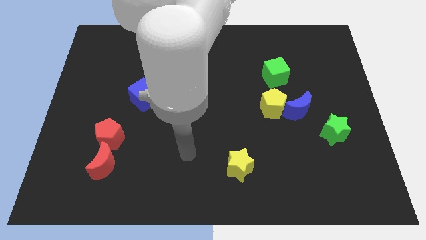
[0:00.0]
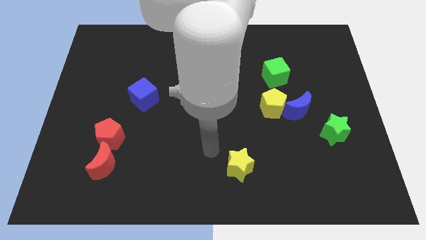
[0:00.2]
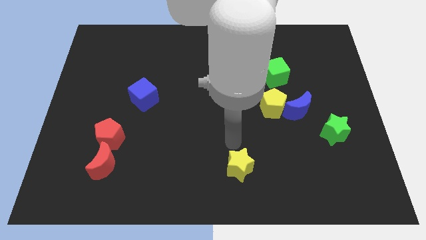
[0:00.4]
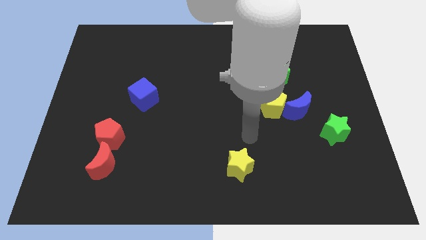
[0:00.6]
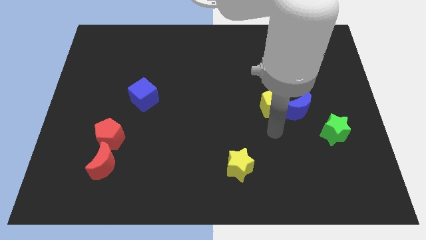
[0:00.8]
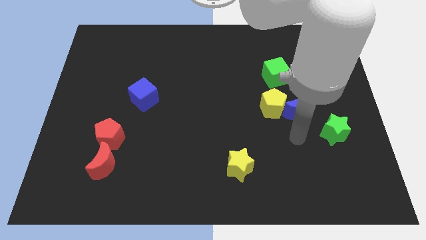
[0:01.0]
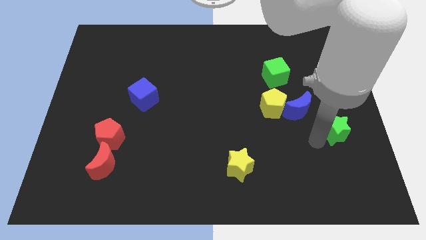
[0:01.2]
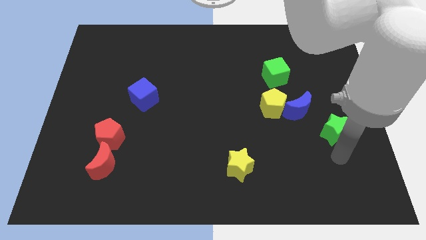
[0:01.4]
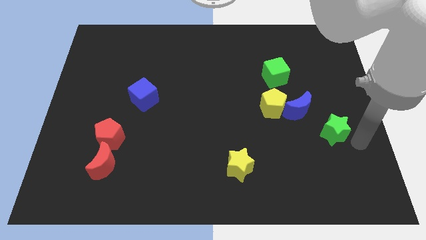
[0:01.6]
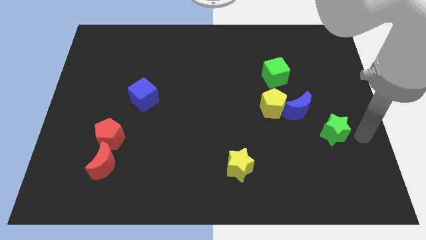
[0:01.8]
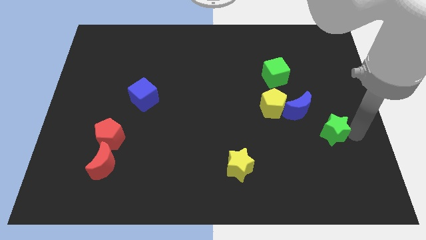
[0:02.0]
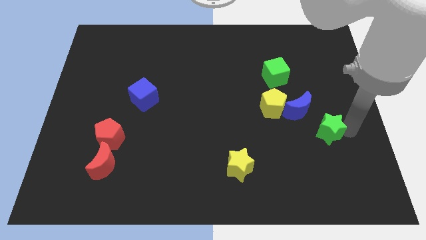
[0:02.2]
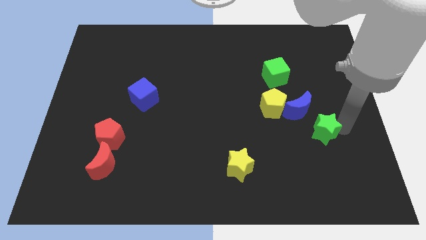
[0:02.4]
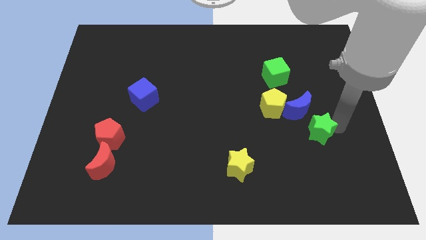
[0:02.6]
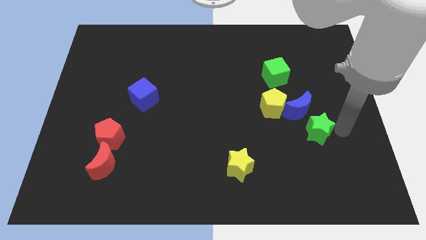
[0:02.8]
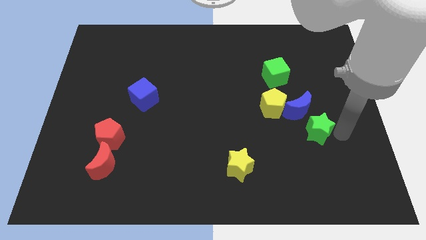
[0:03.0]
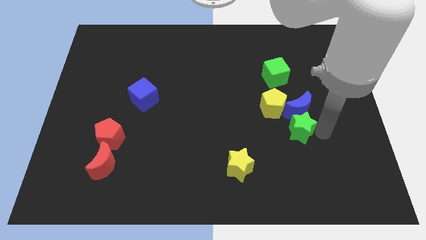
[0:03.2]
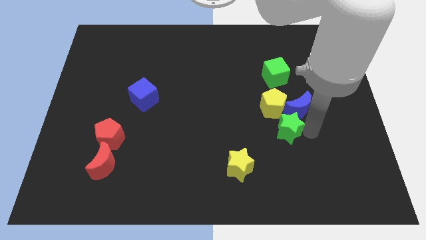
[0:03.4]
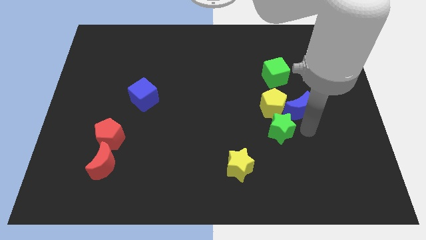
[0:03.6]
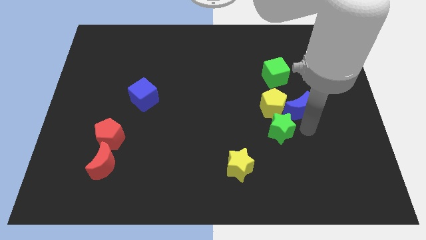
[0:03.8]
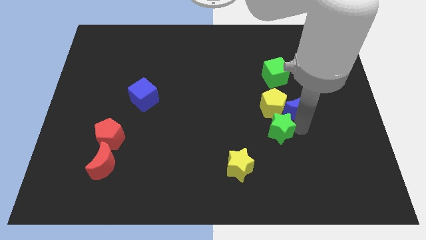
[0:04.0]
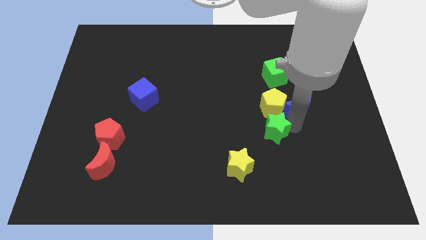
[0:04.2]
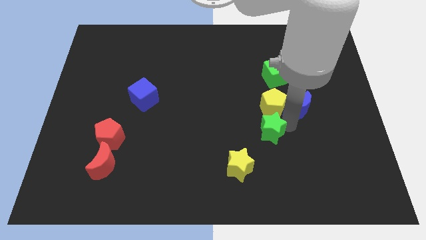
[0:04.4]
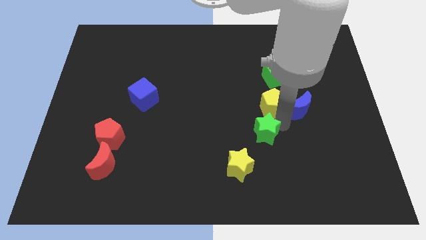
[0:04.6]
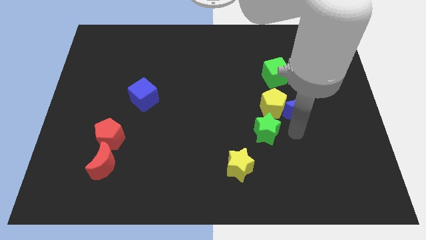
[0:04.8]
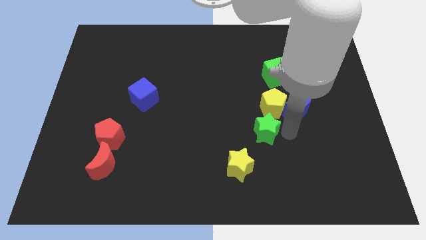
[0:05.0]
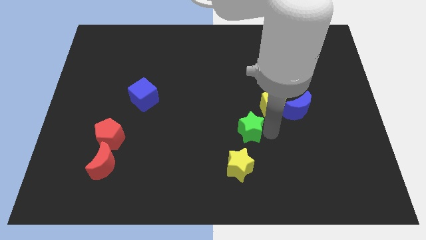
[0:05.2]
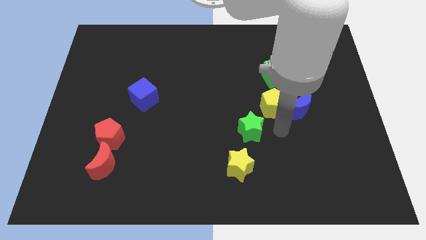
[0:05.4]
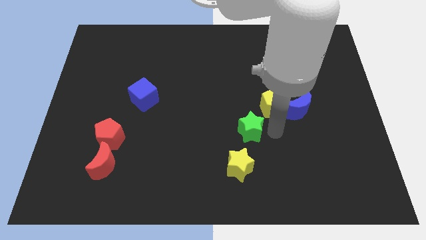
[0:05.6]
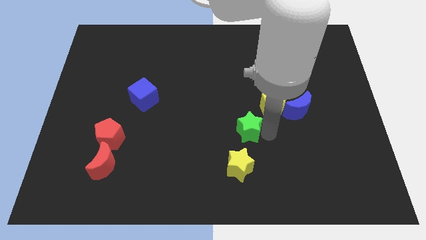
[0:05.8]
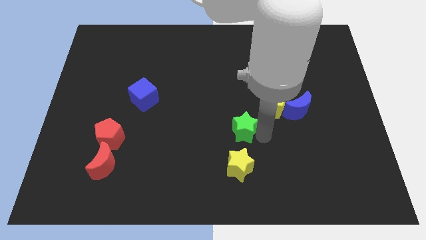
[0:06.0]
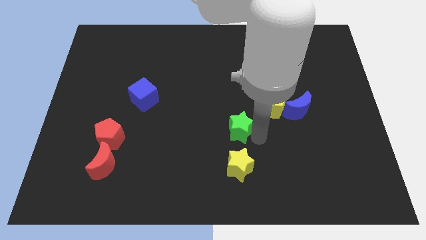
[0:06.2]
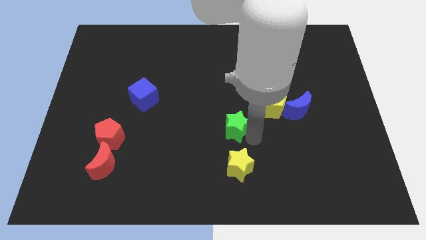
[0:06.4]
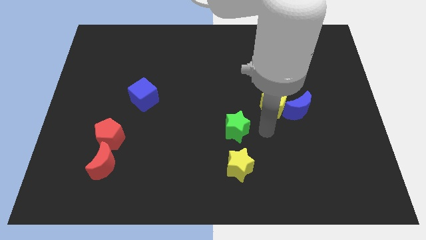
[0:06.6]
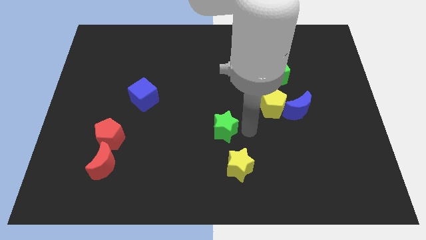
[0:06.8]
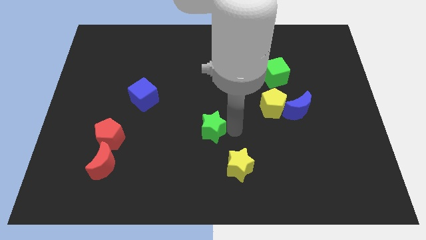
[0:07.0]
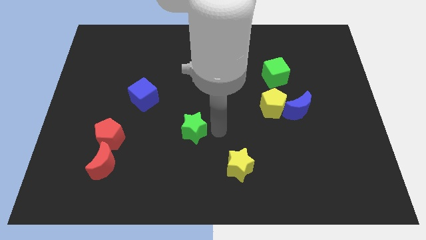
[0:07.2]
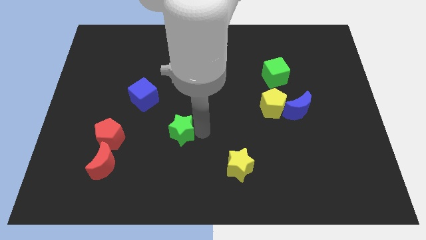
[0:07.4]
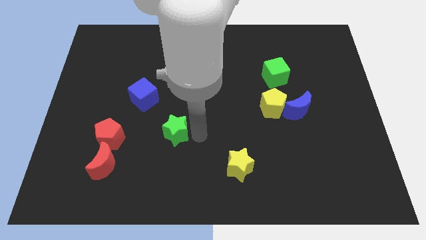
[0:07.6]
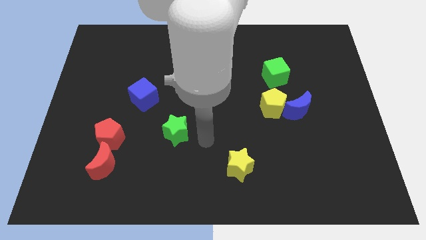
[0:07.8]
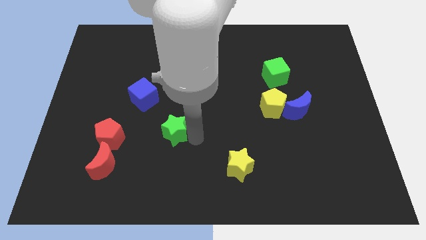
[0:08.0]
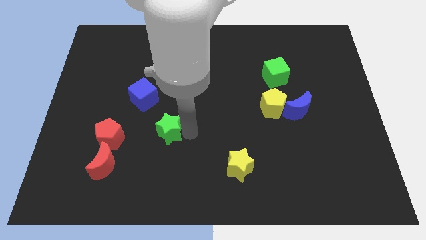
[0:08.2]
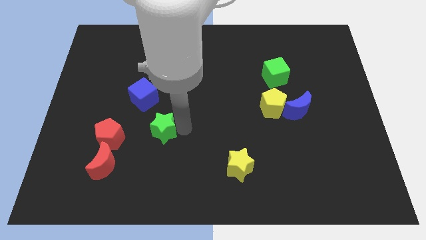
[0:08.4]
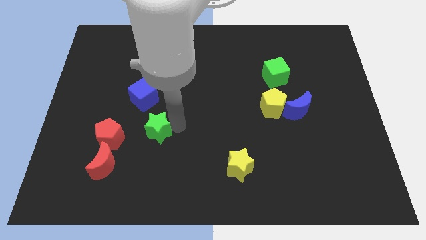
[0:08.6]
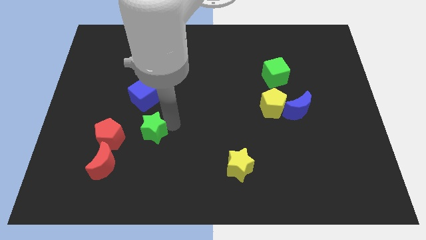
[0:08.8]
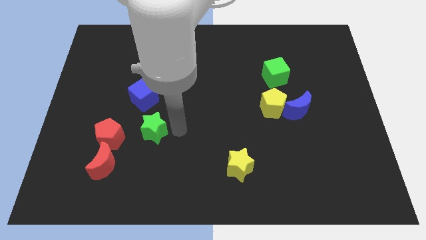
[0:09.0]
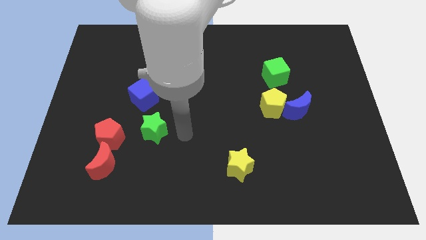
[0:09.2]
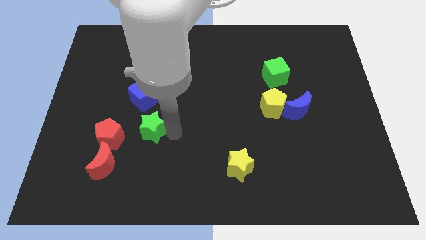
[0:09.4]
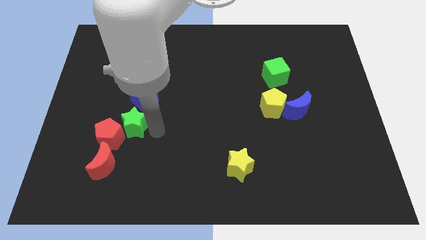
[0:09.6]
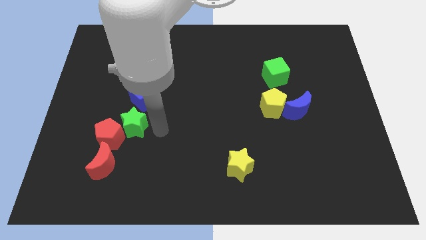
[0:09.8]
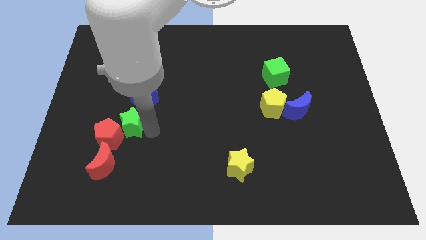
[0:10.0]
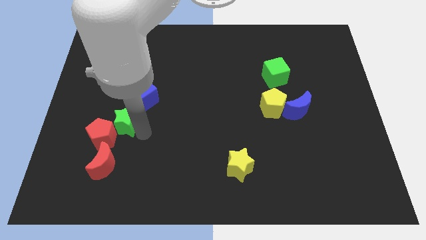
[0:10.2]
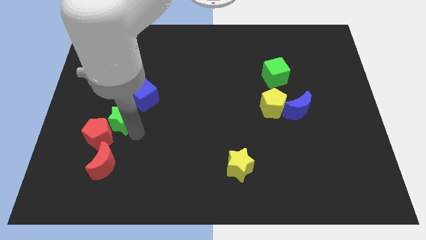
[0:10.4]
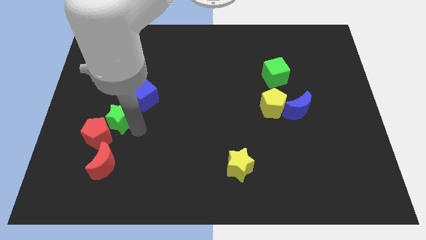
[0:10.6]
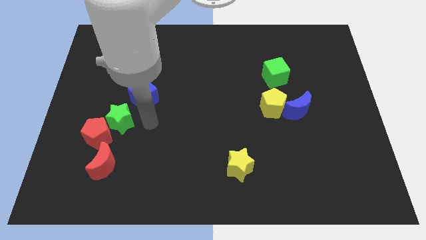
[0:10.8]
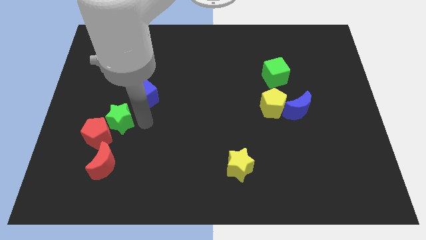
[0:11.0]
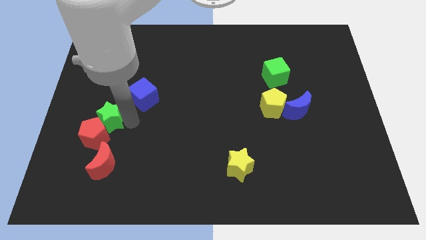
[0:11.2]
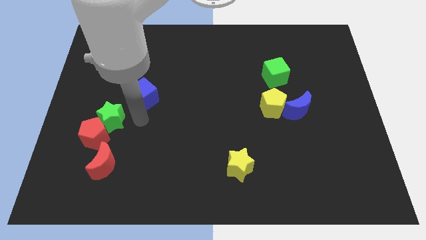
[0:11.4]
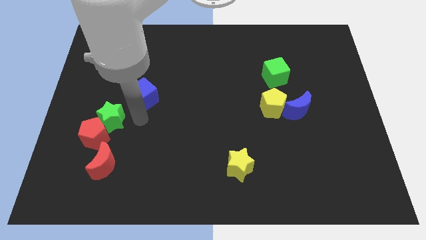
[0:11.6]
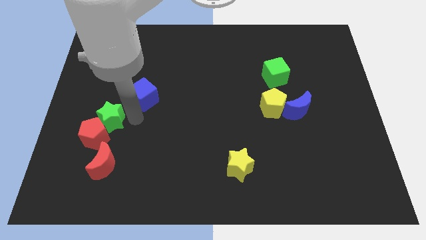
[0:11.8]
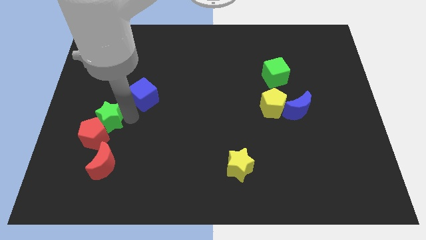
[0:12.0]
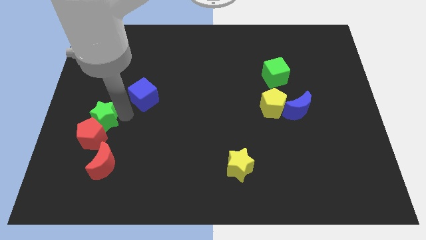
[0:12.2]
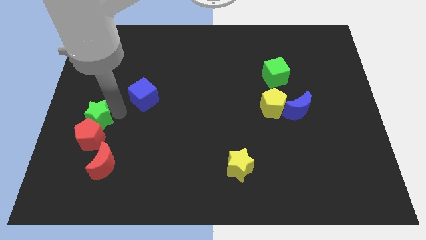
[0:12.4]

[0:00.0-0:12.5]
push the green star to the center left
